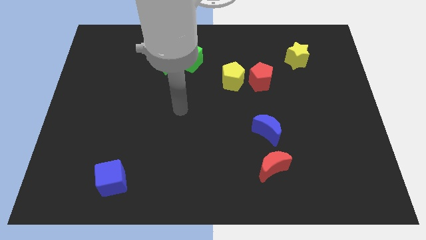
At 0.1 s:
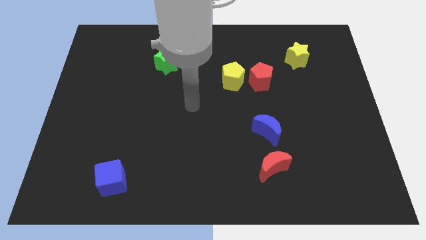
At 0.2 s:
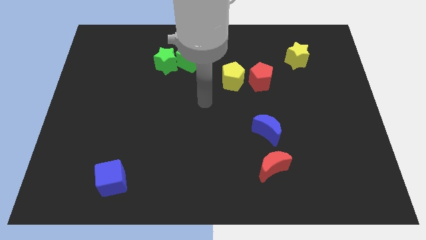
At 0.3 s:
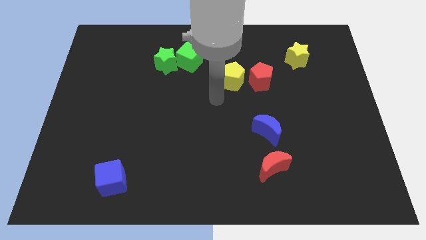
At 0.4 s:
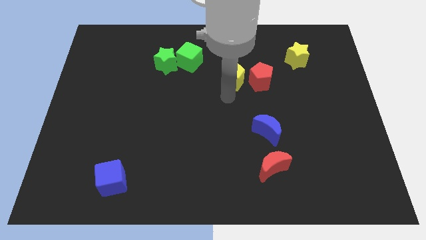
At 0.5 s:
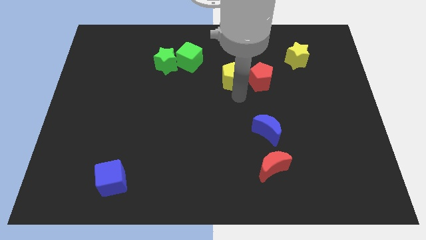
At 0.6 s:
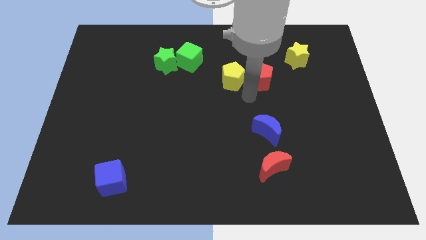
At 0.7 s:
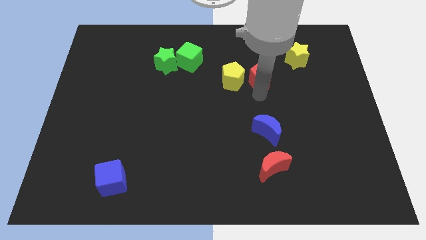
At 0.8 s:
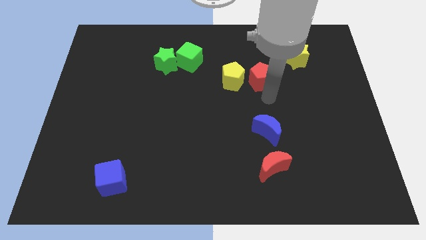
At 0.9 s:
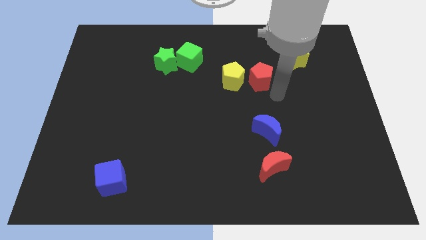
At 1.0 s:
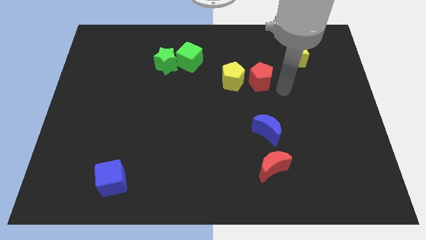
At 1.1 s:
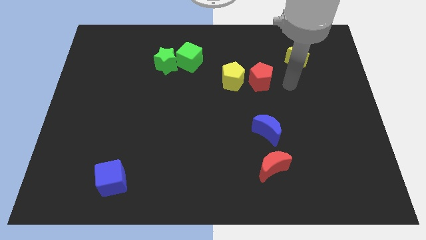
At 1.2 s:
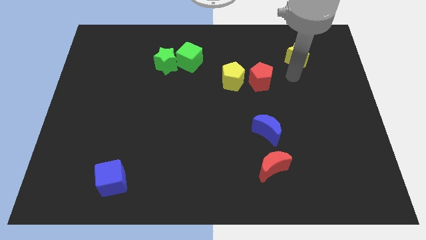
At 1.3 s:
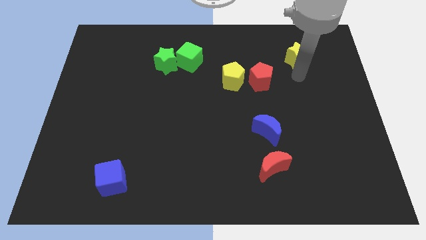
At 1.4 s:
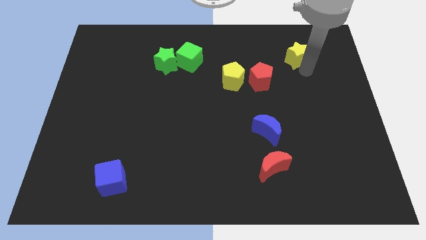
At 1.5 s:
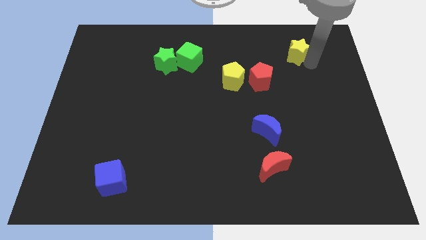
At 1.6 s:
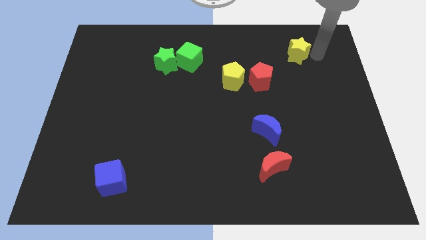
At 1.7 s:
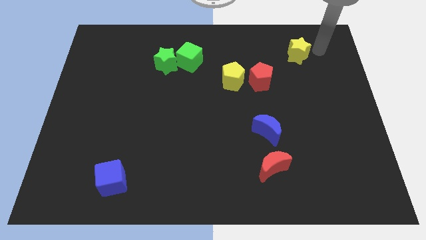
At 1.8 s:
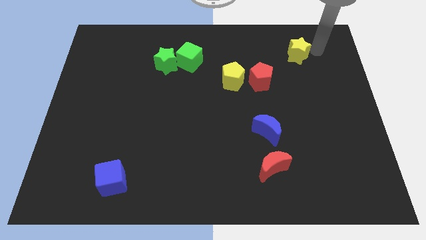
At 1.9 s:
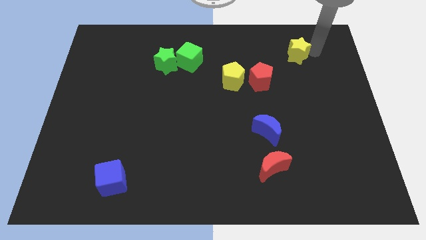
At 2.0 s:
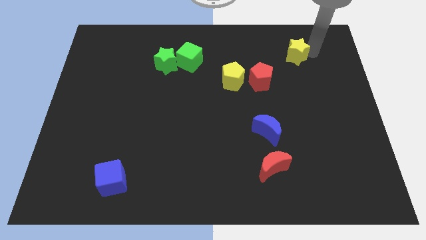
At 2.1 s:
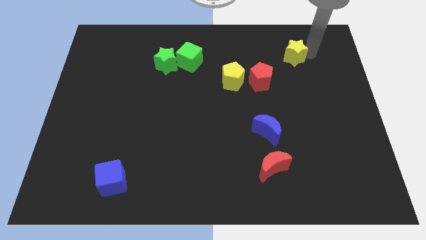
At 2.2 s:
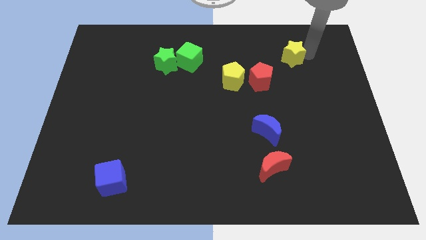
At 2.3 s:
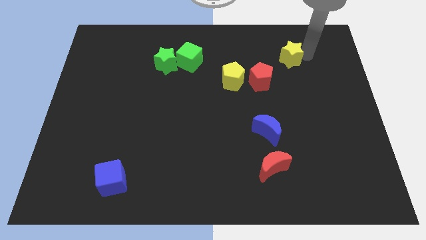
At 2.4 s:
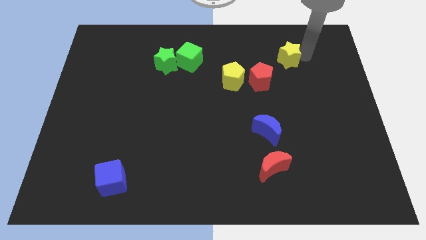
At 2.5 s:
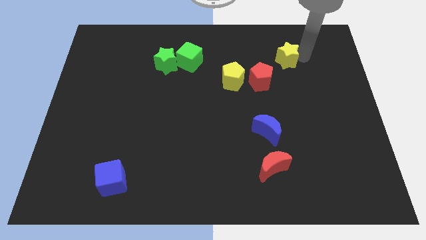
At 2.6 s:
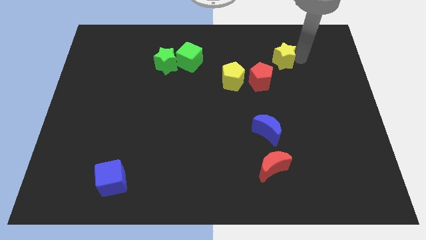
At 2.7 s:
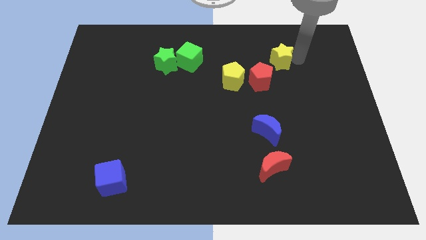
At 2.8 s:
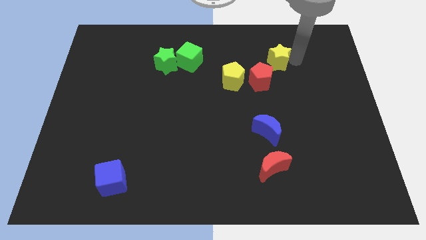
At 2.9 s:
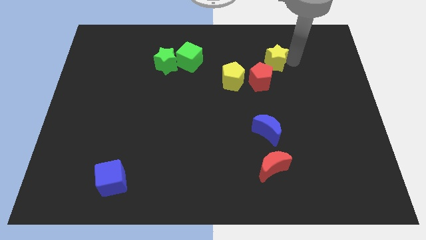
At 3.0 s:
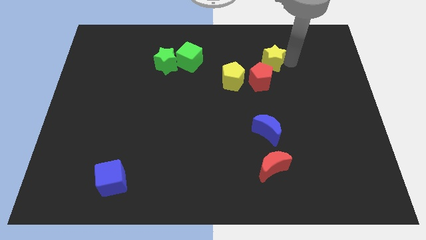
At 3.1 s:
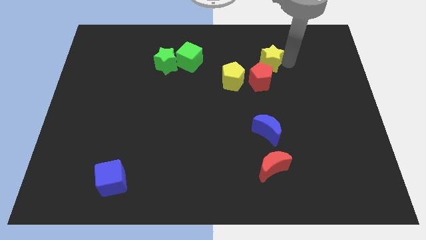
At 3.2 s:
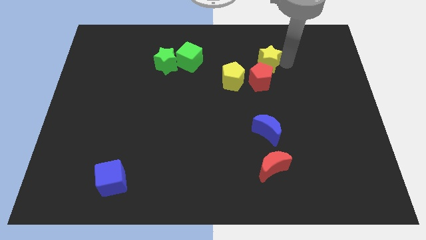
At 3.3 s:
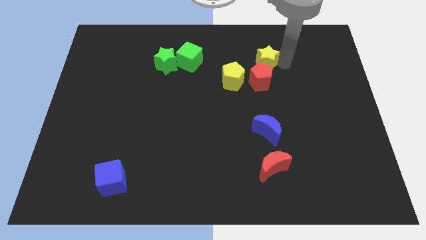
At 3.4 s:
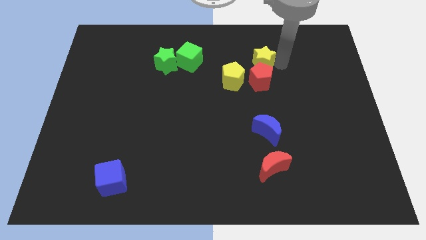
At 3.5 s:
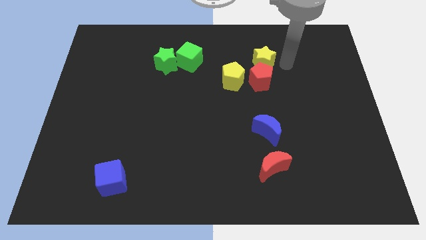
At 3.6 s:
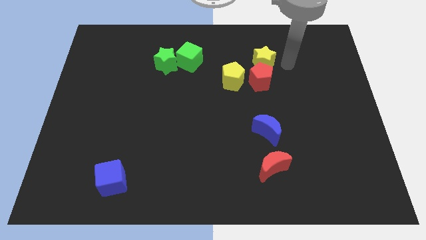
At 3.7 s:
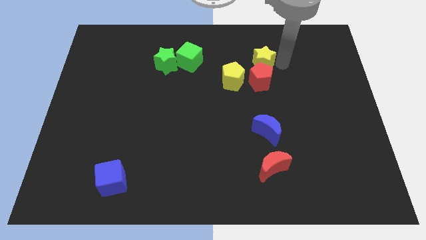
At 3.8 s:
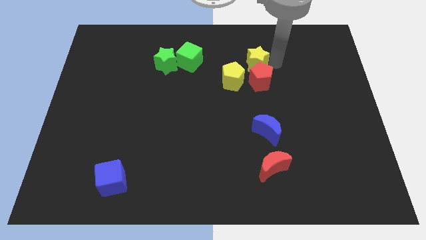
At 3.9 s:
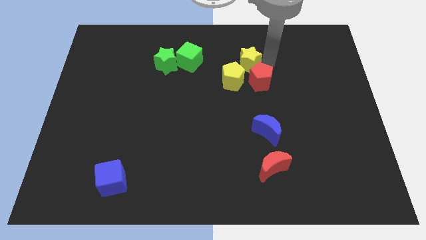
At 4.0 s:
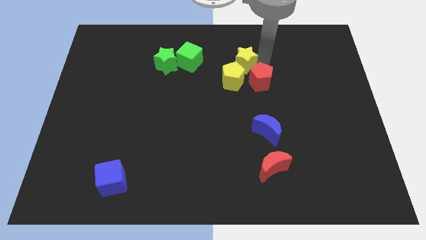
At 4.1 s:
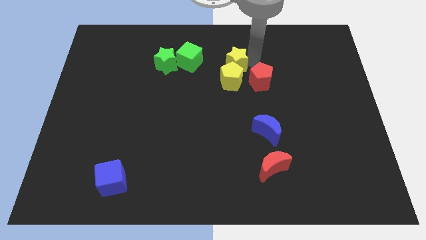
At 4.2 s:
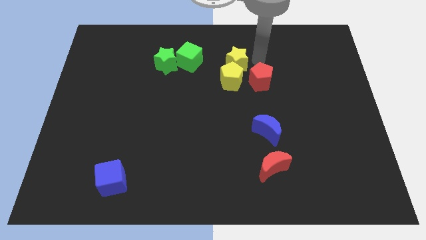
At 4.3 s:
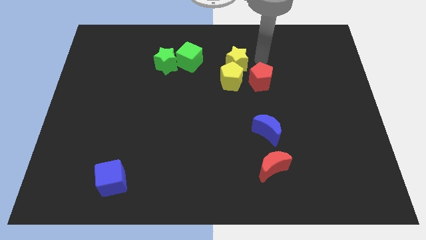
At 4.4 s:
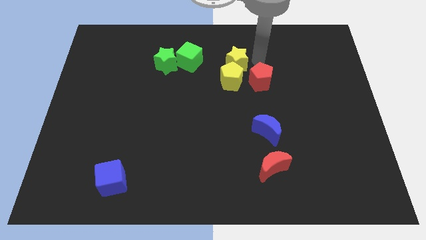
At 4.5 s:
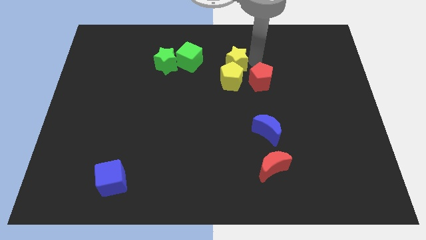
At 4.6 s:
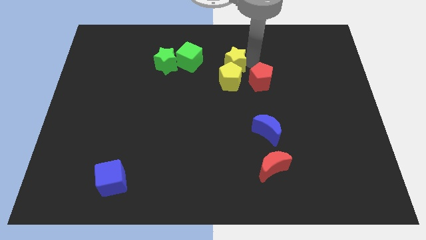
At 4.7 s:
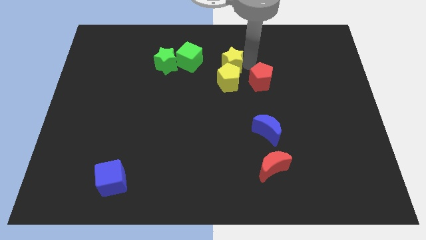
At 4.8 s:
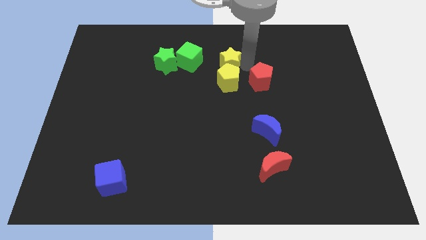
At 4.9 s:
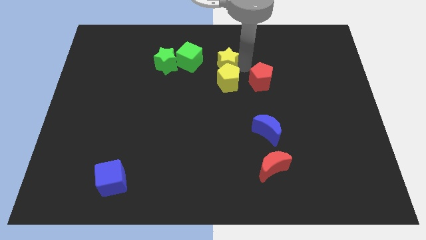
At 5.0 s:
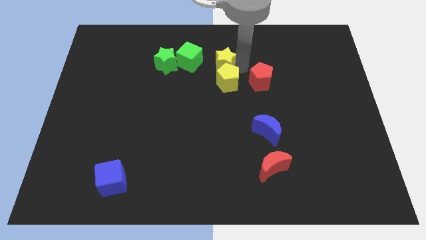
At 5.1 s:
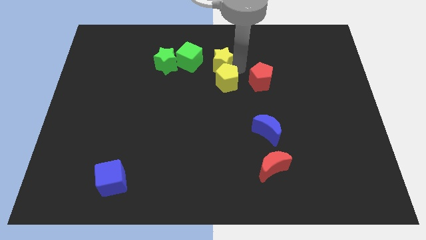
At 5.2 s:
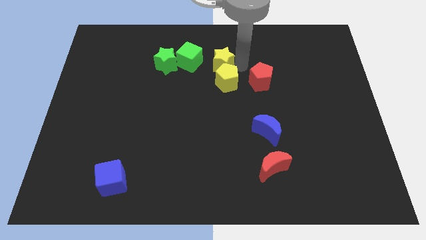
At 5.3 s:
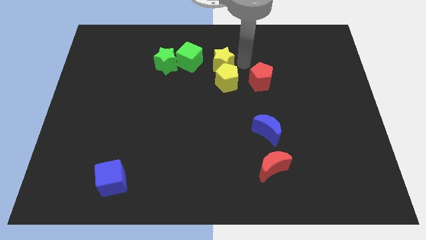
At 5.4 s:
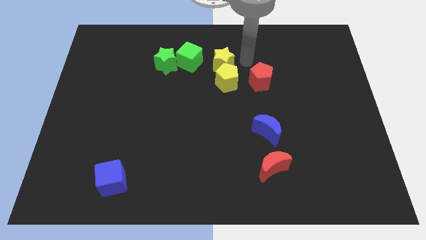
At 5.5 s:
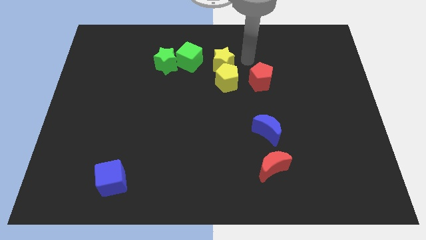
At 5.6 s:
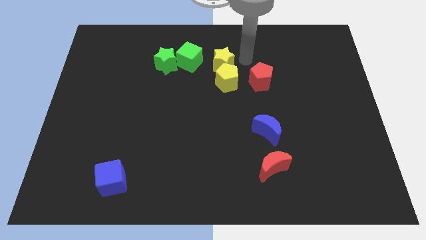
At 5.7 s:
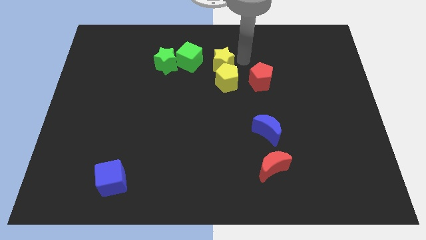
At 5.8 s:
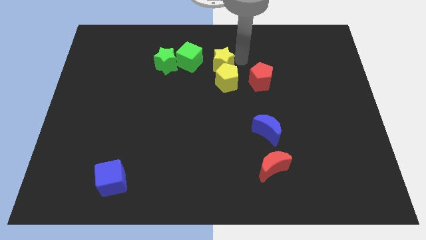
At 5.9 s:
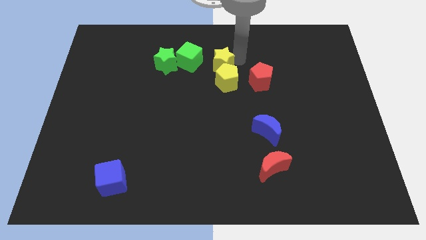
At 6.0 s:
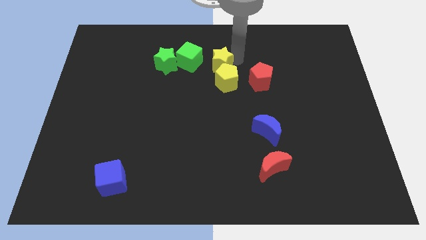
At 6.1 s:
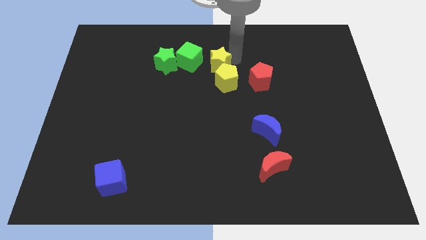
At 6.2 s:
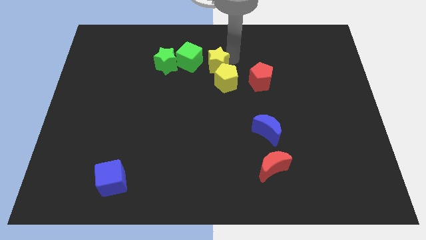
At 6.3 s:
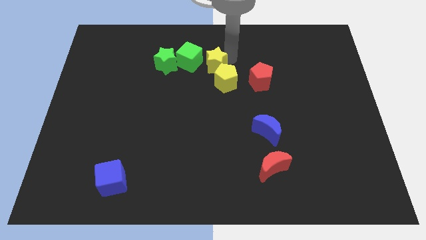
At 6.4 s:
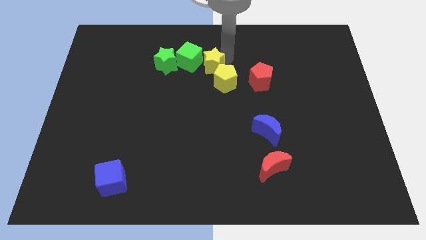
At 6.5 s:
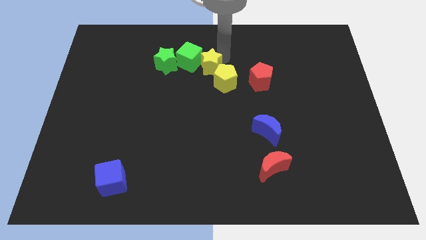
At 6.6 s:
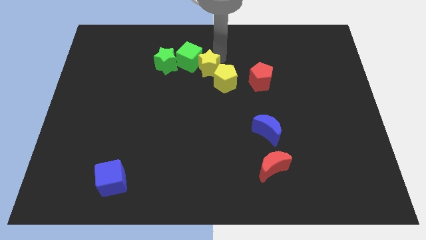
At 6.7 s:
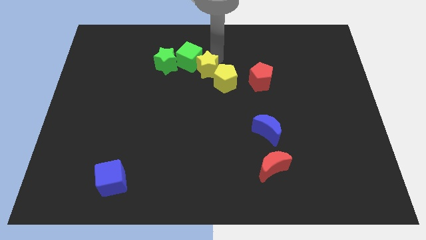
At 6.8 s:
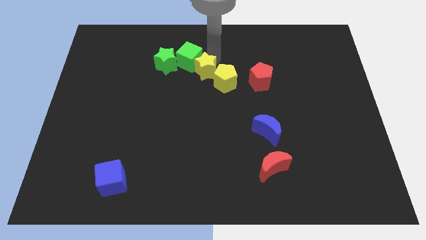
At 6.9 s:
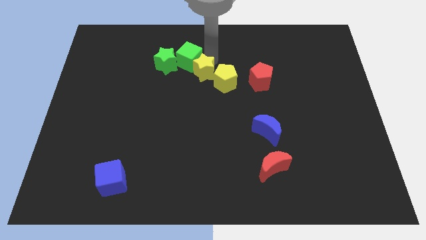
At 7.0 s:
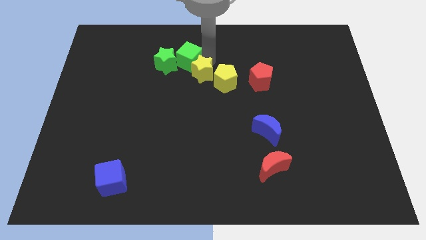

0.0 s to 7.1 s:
push the yellow star to the bottom right side of the green star

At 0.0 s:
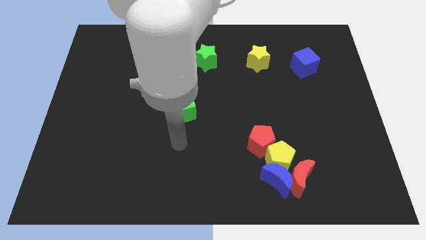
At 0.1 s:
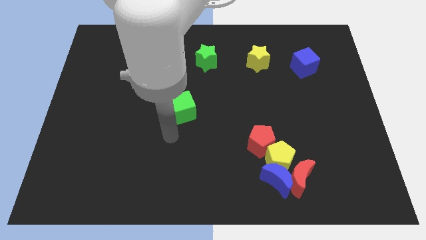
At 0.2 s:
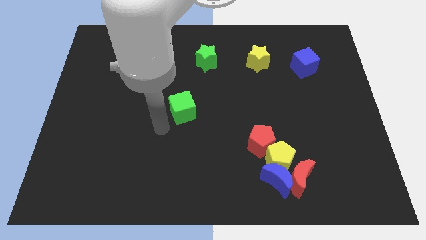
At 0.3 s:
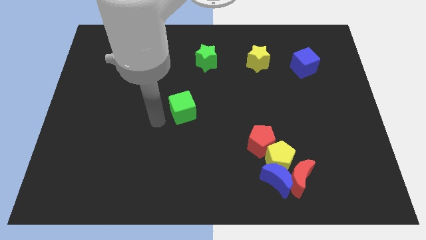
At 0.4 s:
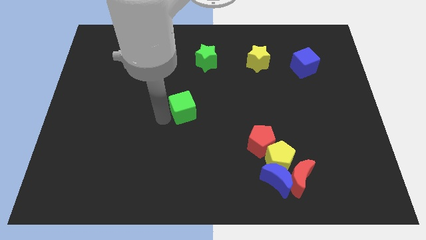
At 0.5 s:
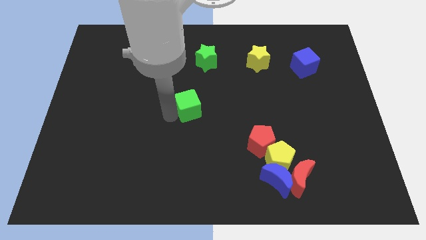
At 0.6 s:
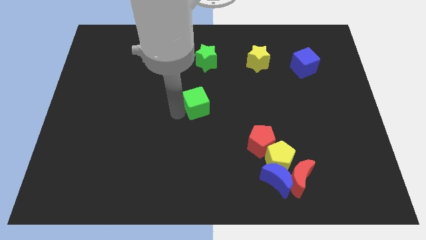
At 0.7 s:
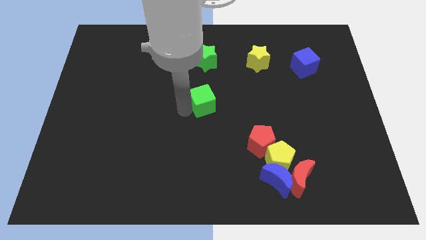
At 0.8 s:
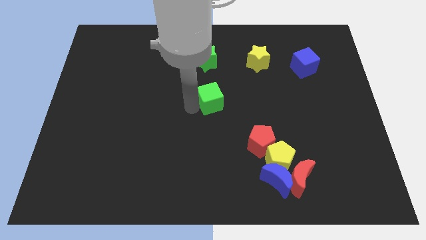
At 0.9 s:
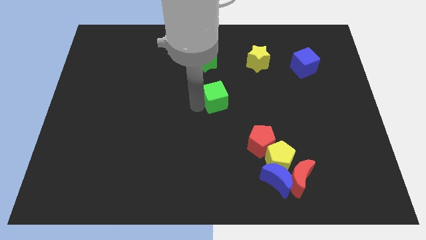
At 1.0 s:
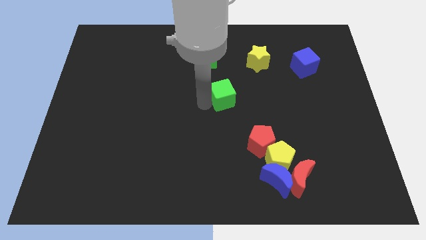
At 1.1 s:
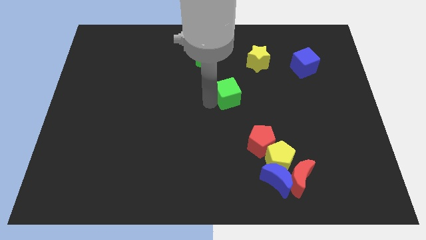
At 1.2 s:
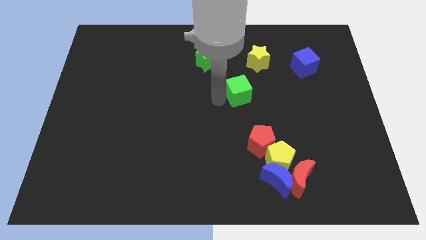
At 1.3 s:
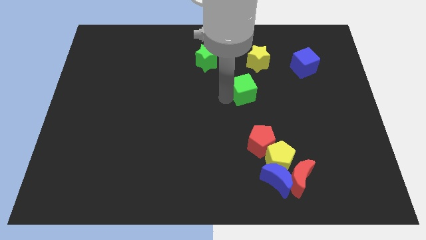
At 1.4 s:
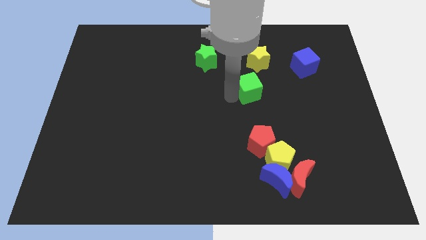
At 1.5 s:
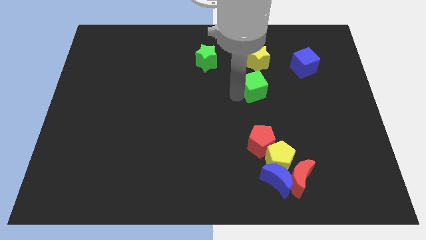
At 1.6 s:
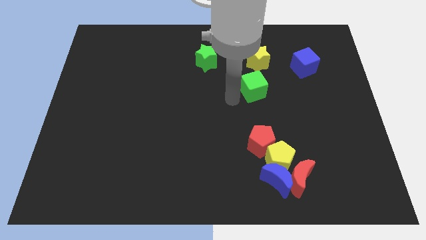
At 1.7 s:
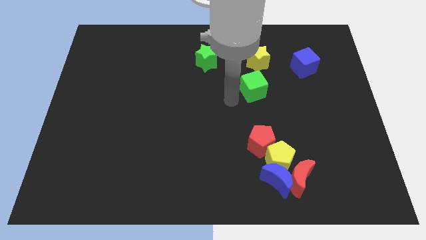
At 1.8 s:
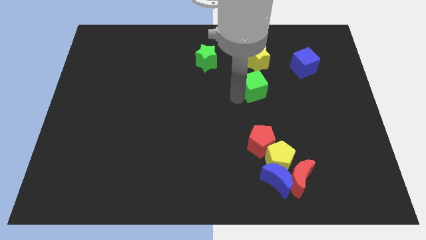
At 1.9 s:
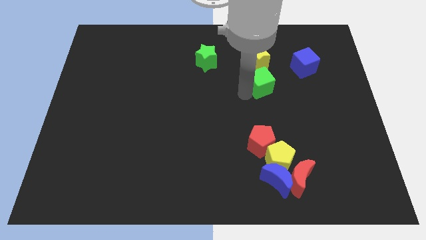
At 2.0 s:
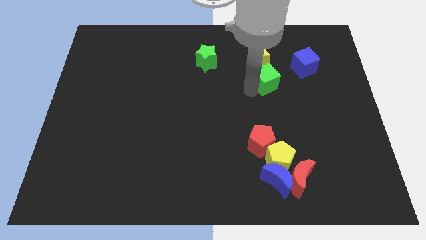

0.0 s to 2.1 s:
move the green cube diagonally down and to the right of the yellow star
